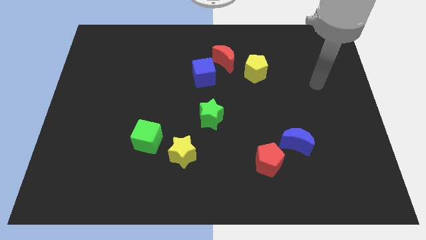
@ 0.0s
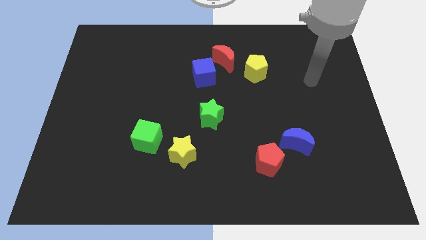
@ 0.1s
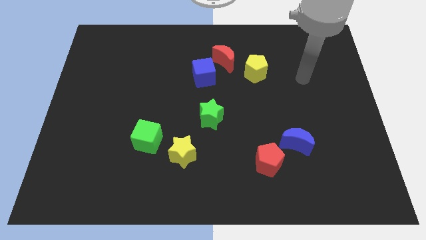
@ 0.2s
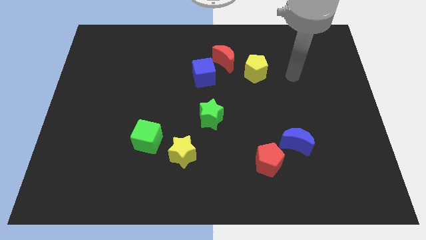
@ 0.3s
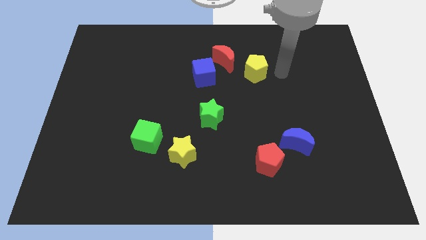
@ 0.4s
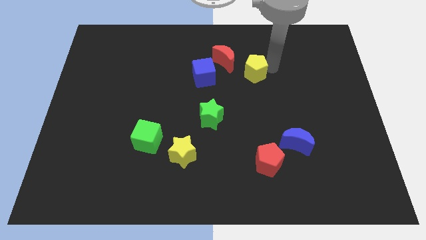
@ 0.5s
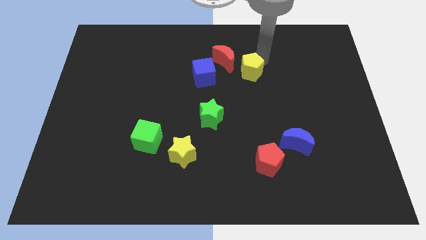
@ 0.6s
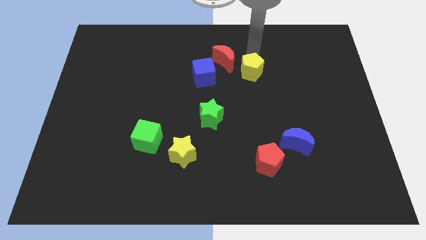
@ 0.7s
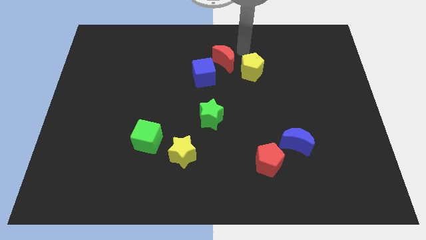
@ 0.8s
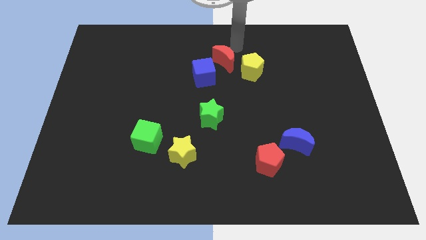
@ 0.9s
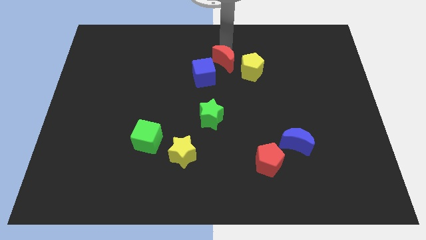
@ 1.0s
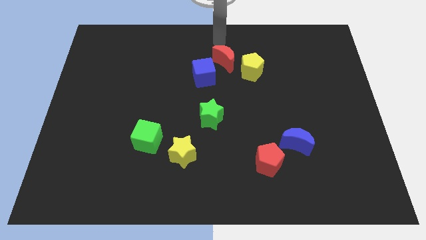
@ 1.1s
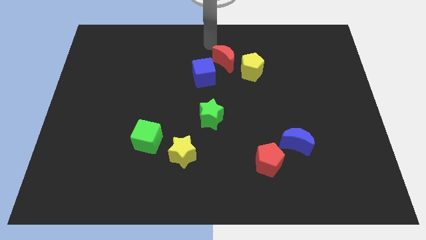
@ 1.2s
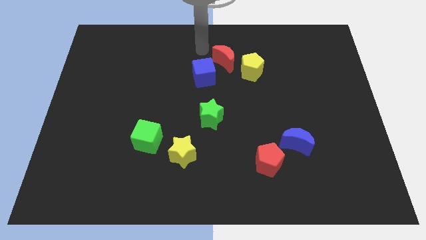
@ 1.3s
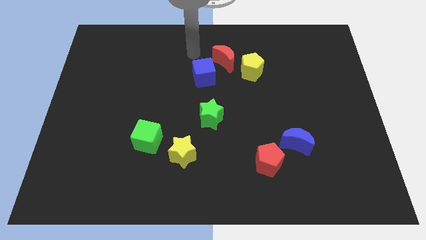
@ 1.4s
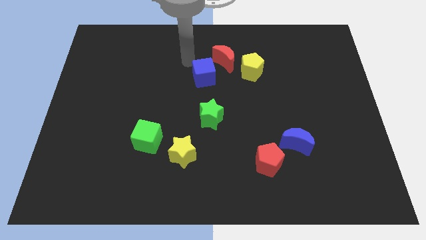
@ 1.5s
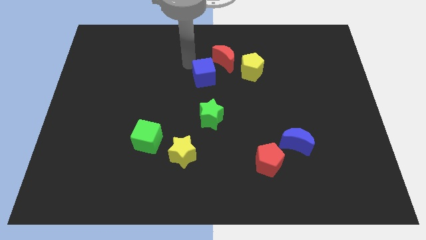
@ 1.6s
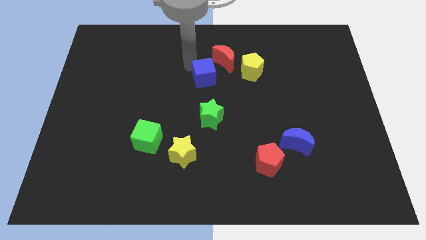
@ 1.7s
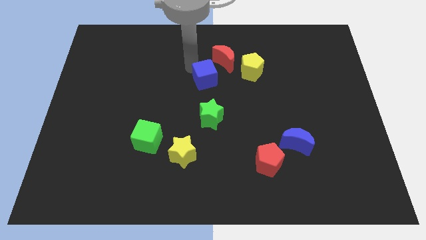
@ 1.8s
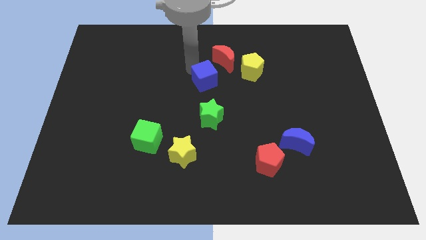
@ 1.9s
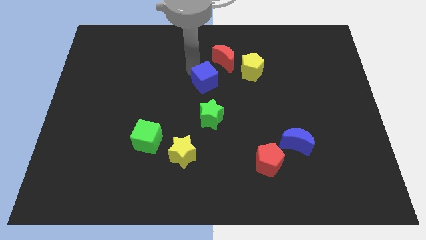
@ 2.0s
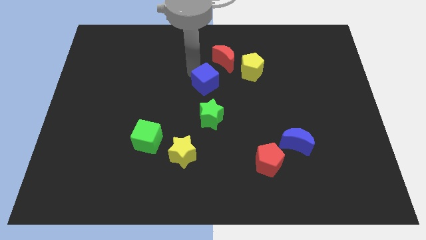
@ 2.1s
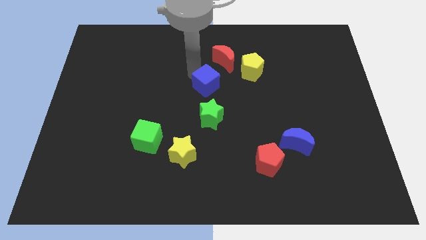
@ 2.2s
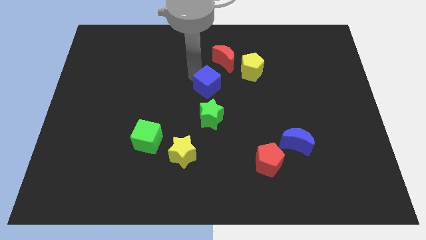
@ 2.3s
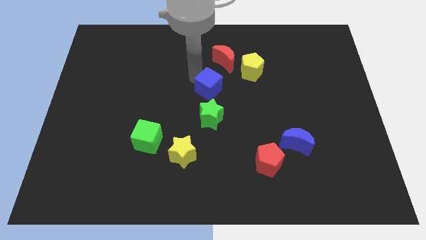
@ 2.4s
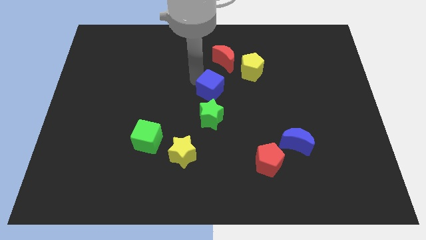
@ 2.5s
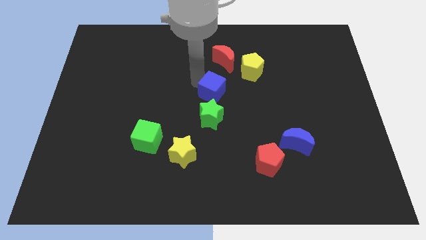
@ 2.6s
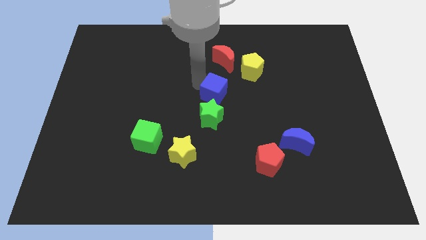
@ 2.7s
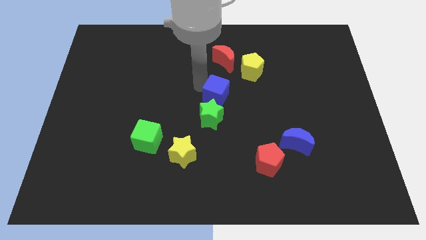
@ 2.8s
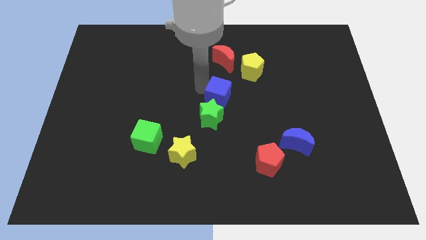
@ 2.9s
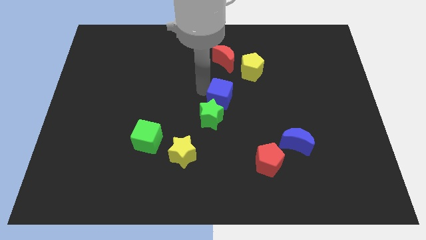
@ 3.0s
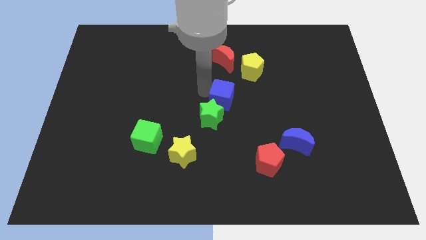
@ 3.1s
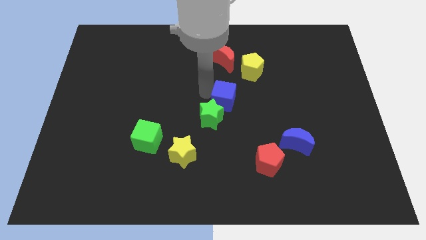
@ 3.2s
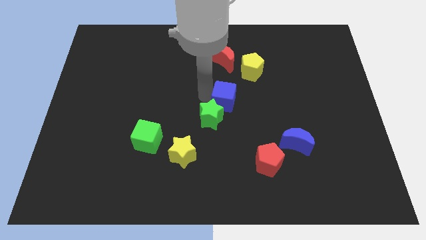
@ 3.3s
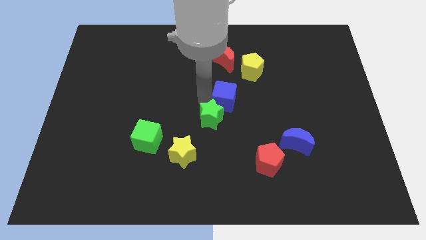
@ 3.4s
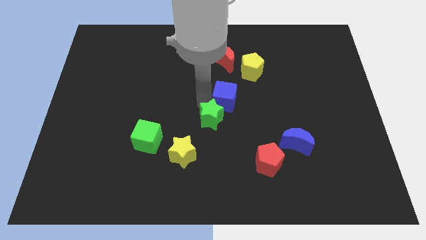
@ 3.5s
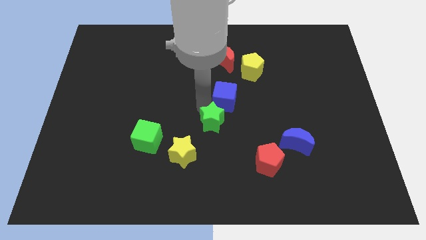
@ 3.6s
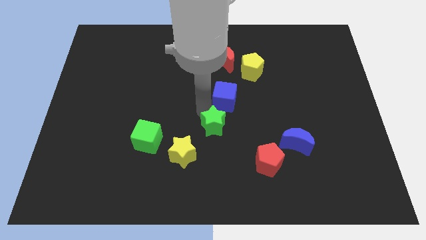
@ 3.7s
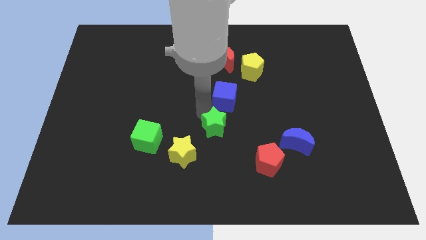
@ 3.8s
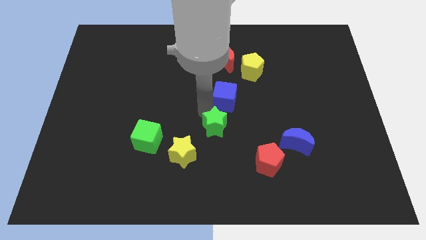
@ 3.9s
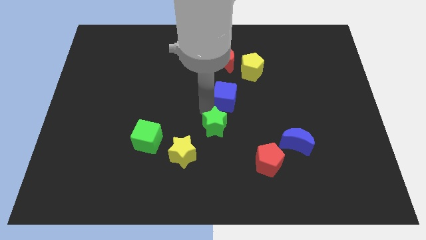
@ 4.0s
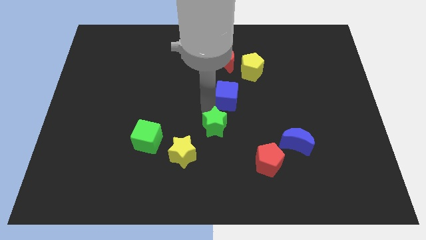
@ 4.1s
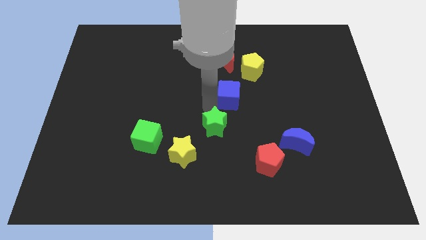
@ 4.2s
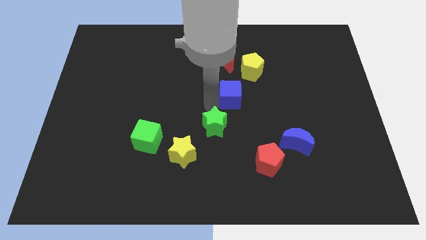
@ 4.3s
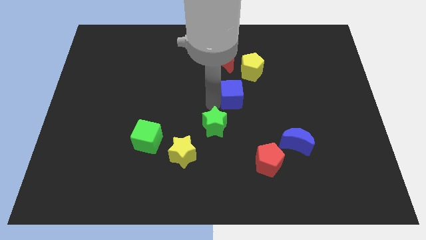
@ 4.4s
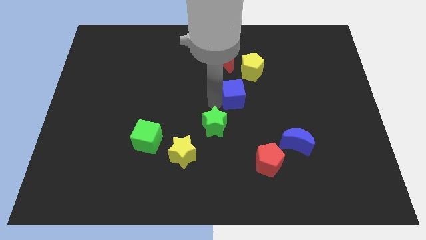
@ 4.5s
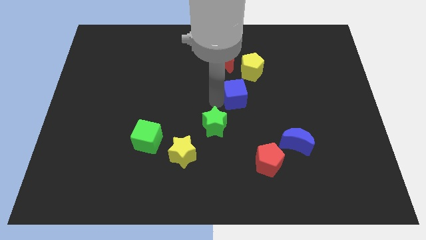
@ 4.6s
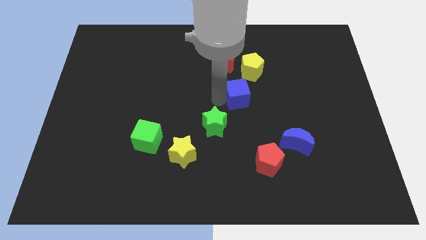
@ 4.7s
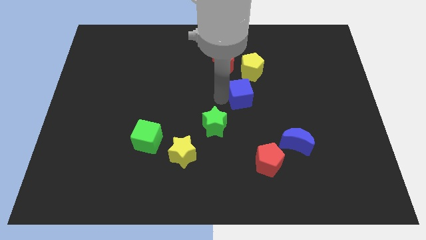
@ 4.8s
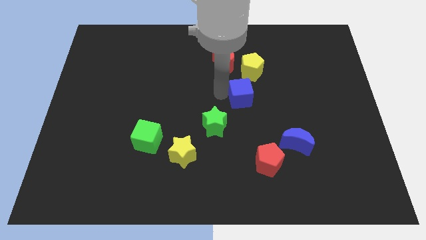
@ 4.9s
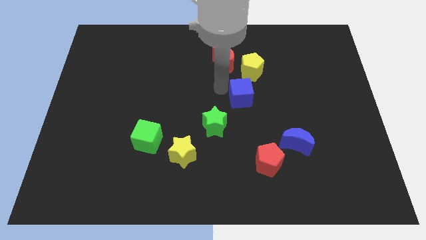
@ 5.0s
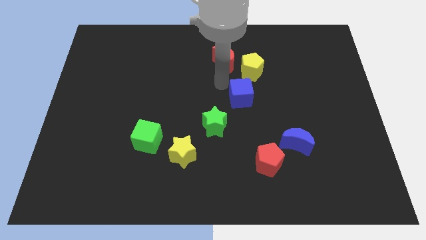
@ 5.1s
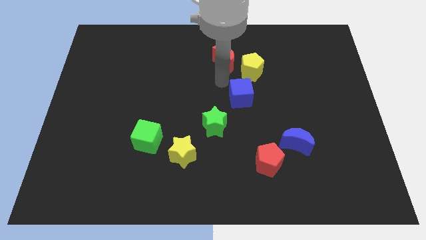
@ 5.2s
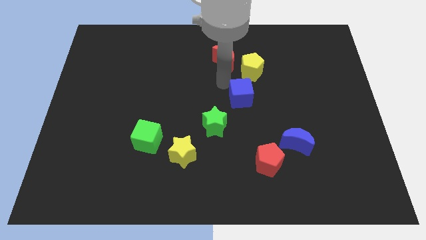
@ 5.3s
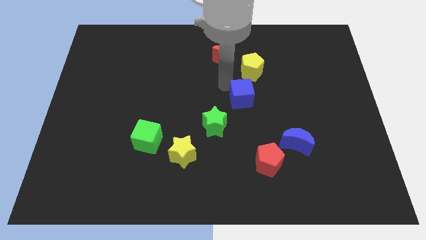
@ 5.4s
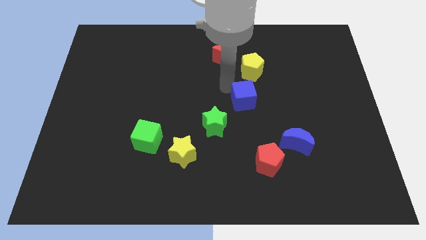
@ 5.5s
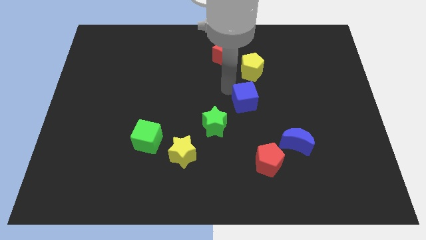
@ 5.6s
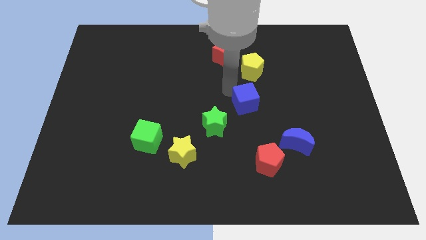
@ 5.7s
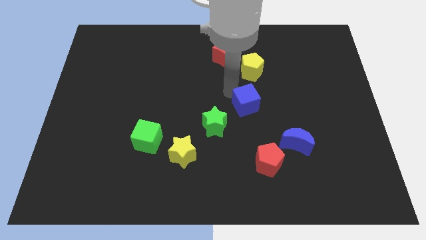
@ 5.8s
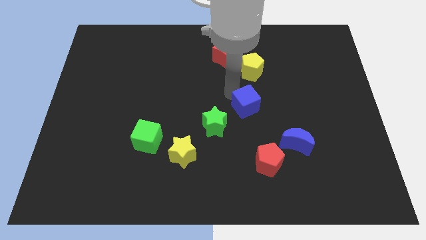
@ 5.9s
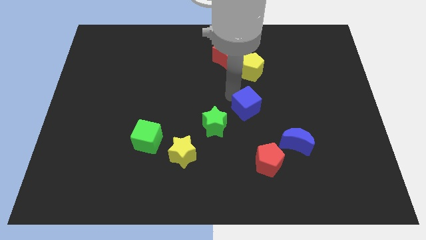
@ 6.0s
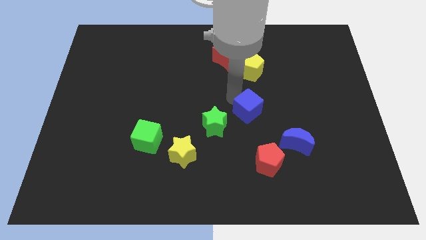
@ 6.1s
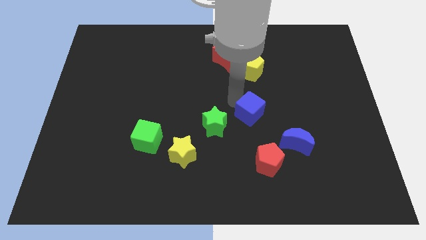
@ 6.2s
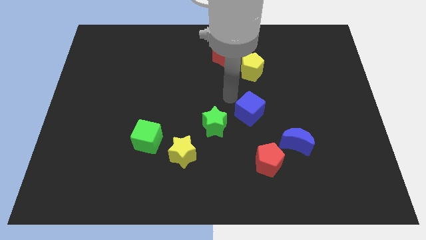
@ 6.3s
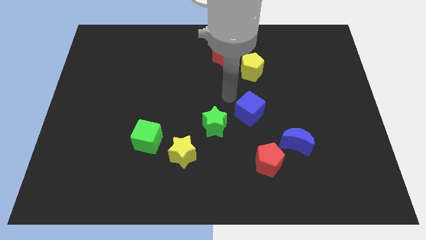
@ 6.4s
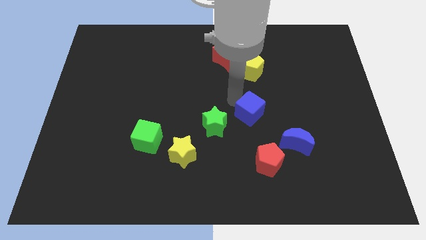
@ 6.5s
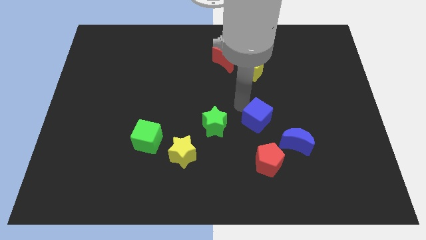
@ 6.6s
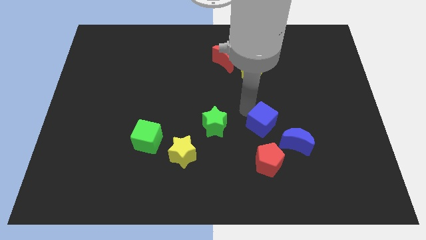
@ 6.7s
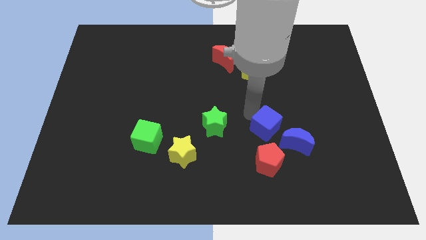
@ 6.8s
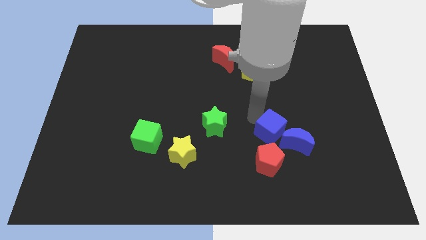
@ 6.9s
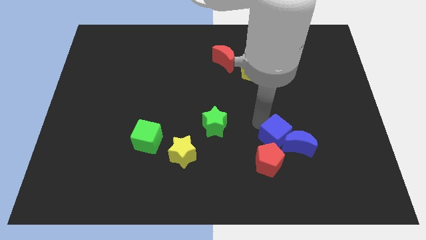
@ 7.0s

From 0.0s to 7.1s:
push the blue cube close to the blue moon

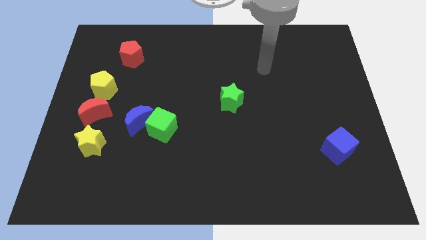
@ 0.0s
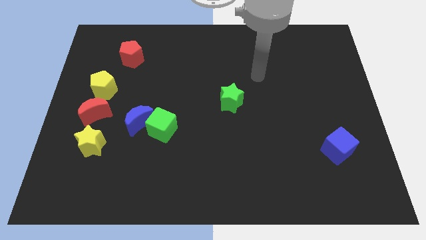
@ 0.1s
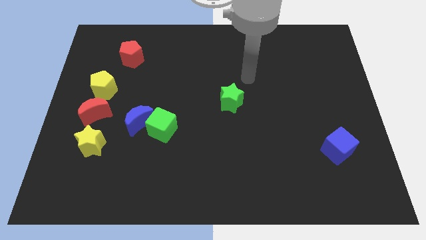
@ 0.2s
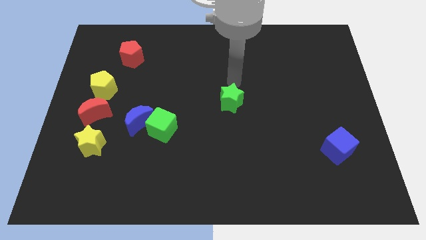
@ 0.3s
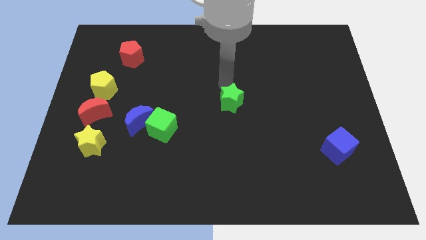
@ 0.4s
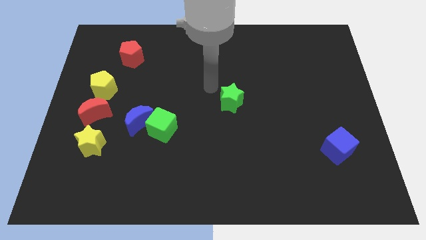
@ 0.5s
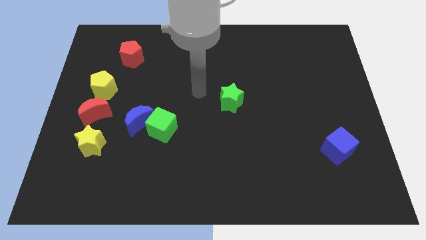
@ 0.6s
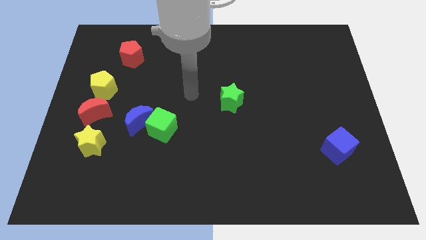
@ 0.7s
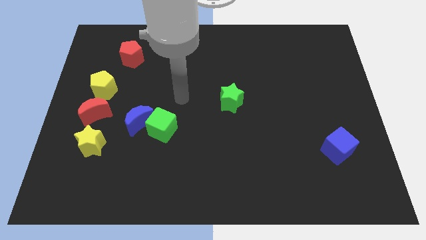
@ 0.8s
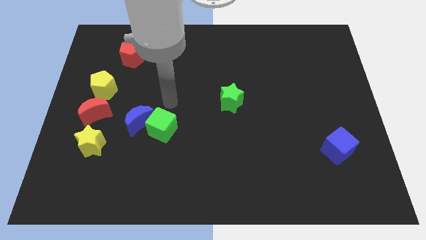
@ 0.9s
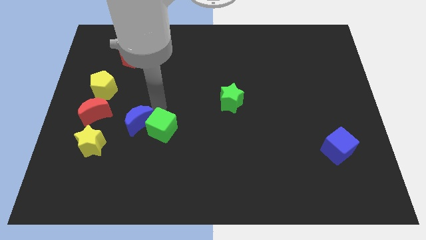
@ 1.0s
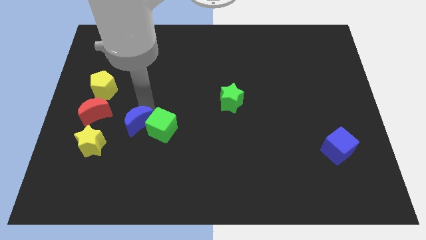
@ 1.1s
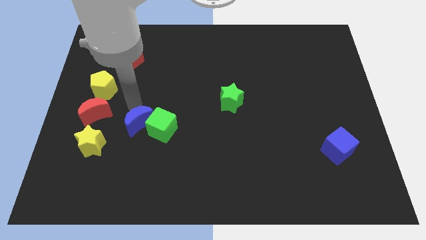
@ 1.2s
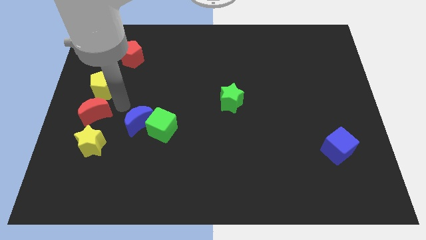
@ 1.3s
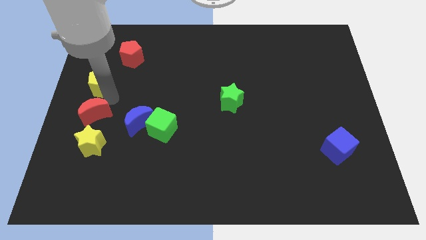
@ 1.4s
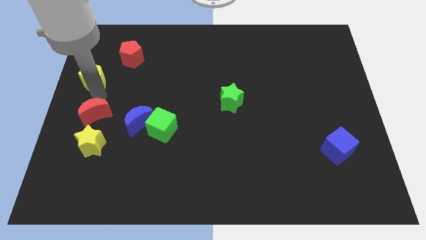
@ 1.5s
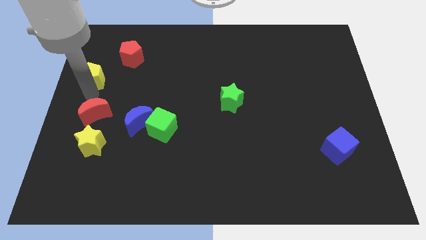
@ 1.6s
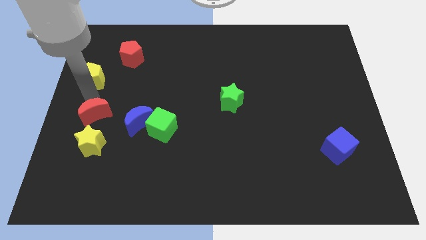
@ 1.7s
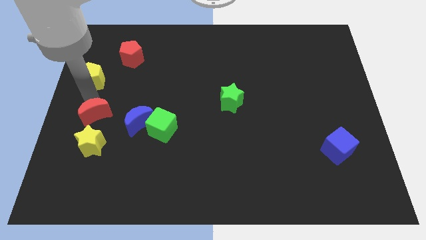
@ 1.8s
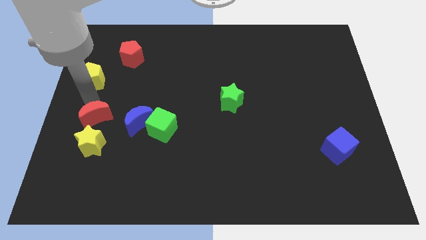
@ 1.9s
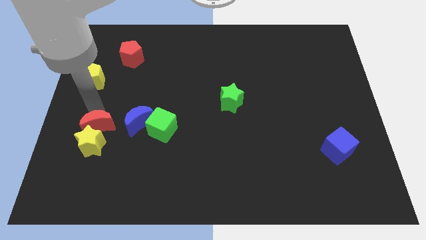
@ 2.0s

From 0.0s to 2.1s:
put the red moon to the yellow star
